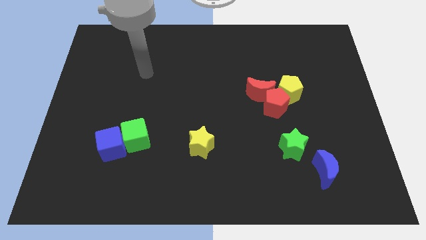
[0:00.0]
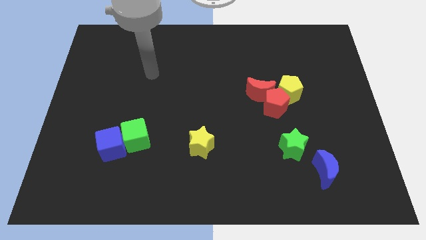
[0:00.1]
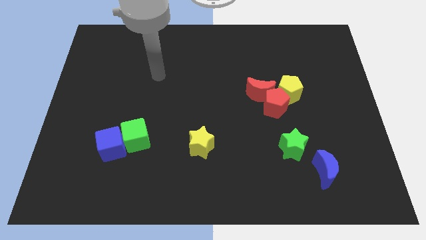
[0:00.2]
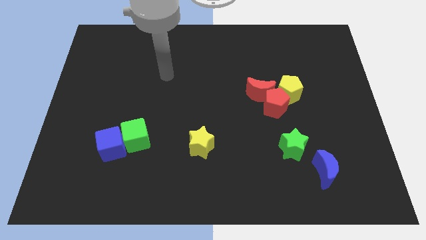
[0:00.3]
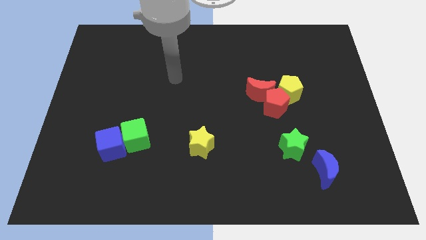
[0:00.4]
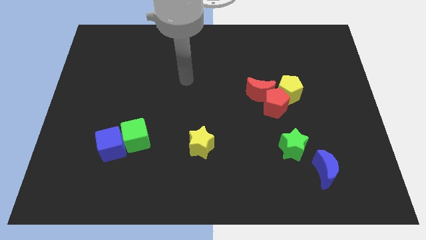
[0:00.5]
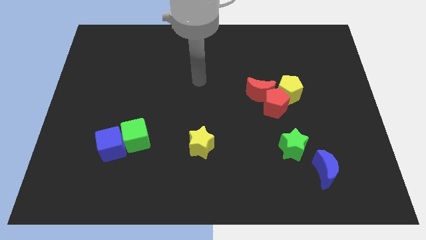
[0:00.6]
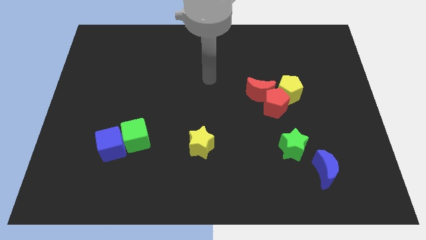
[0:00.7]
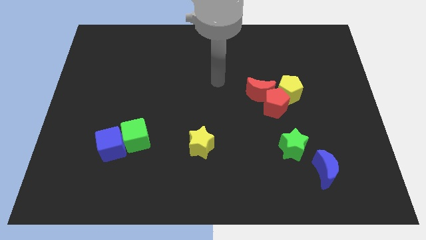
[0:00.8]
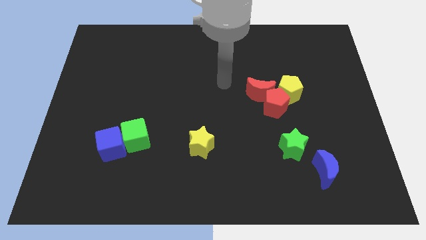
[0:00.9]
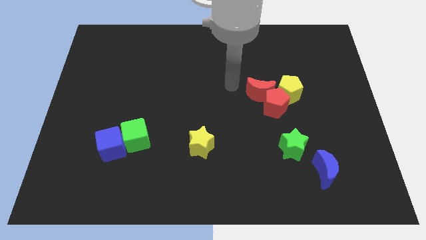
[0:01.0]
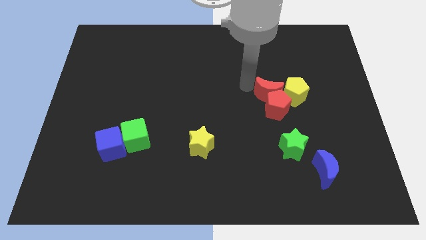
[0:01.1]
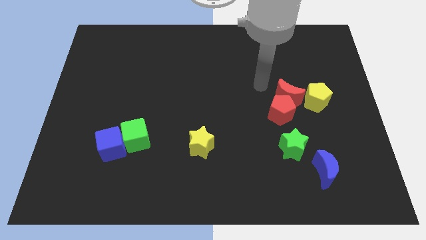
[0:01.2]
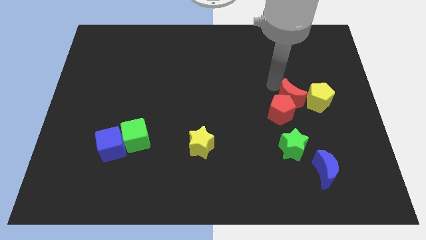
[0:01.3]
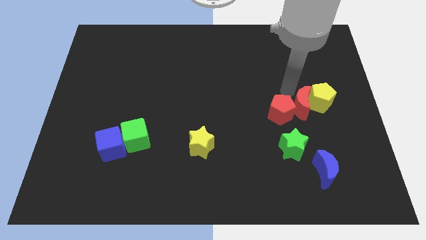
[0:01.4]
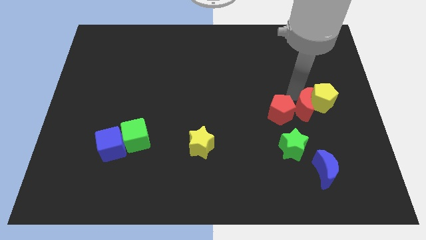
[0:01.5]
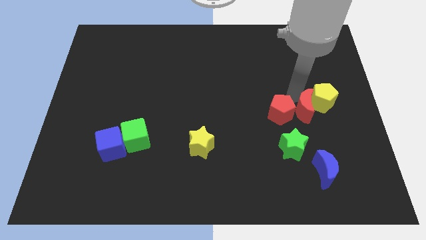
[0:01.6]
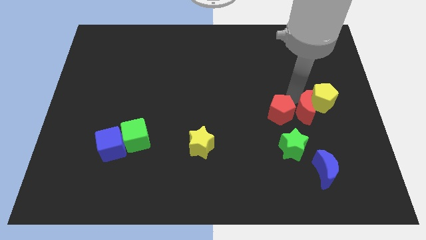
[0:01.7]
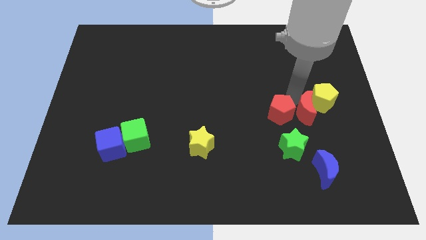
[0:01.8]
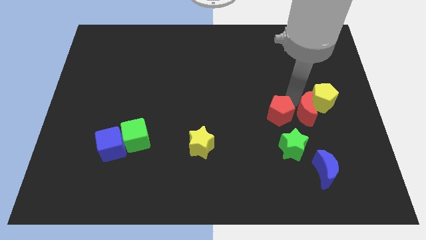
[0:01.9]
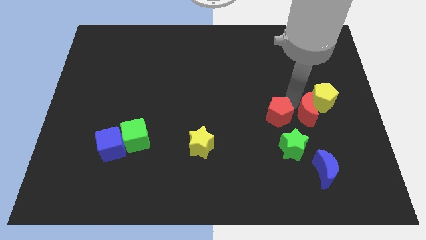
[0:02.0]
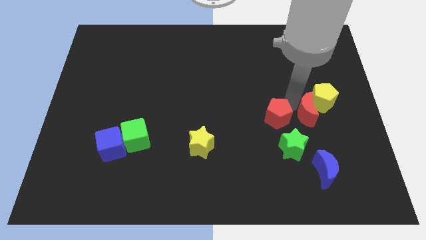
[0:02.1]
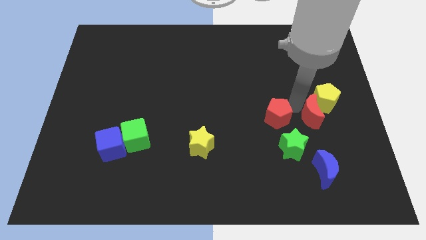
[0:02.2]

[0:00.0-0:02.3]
move the red pentagon away from the red moon and yellow pentagon

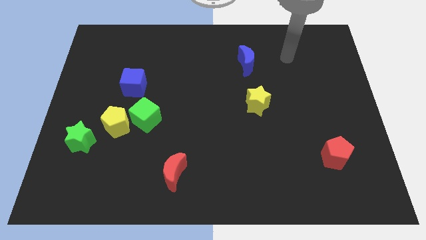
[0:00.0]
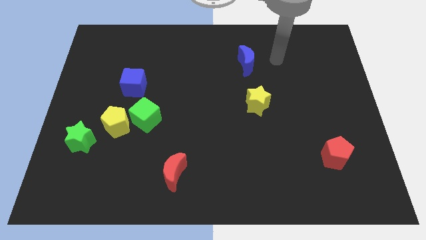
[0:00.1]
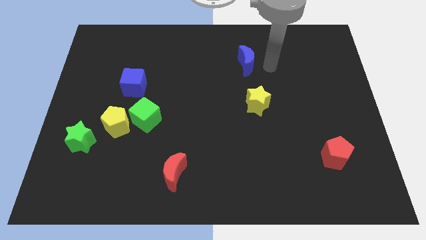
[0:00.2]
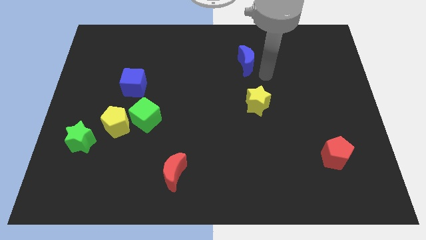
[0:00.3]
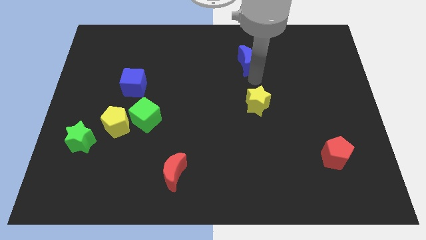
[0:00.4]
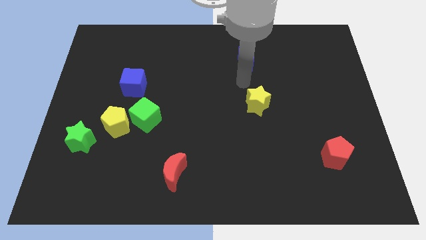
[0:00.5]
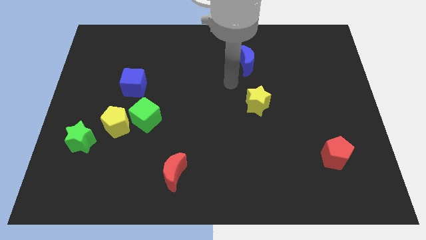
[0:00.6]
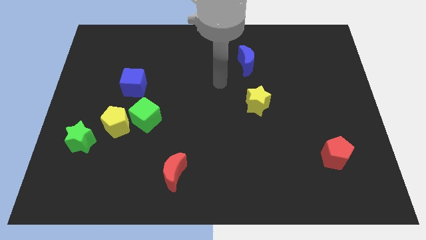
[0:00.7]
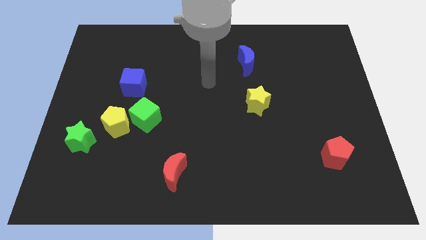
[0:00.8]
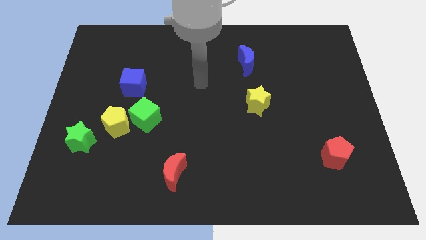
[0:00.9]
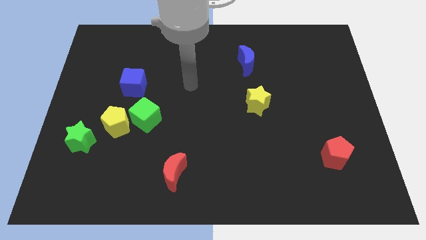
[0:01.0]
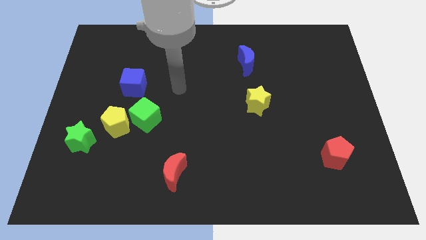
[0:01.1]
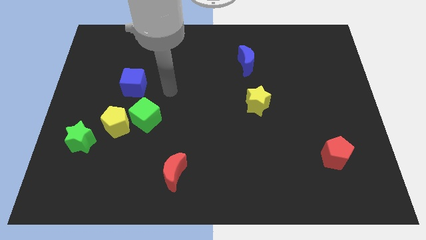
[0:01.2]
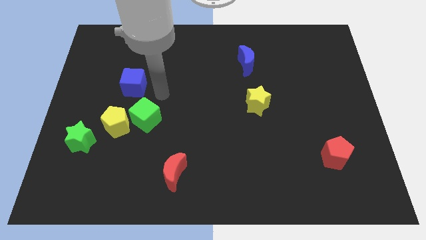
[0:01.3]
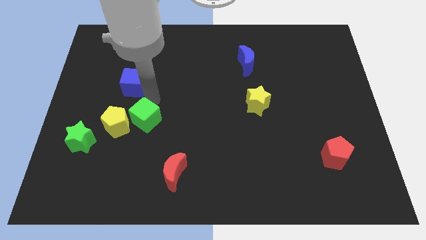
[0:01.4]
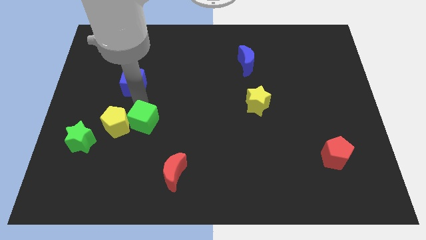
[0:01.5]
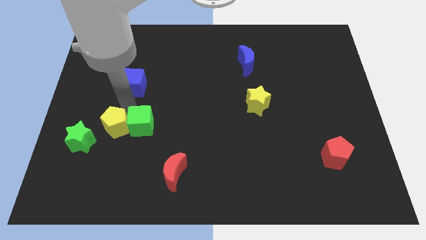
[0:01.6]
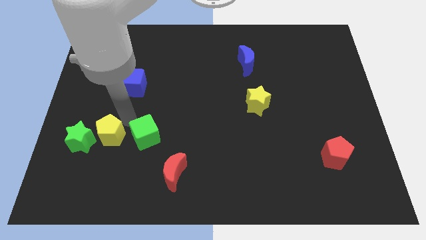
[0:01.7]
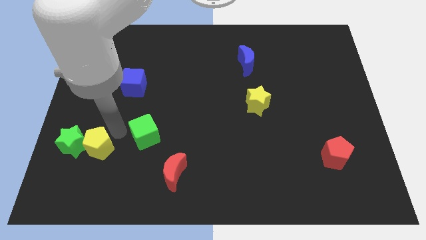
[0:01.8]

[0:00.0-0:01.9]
move the green cube away from the yellow pentagon

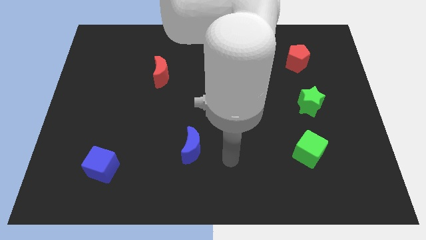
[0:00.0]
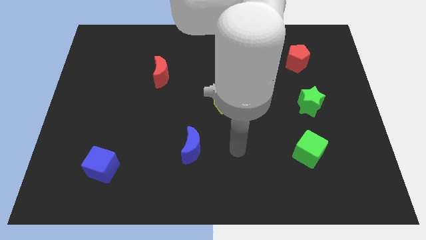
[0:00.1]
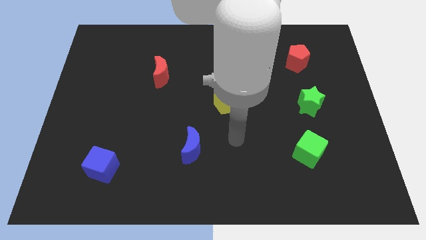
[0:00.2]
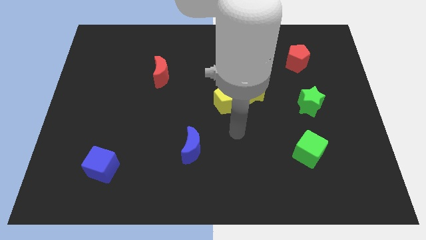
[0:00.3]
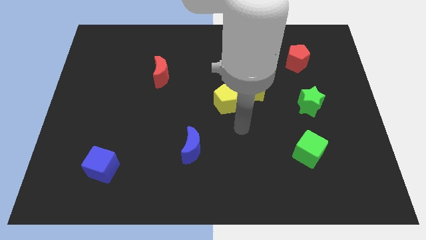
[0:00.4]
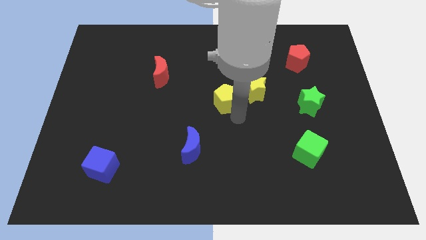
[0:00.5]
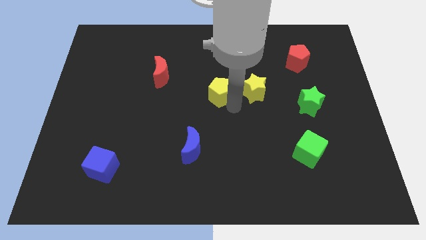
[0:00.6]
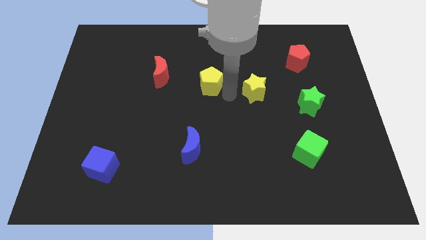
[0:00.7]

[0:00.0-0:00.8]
pull the yellow star apart from the yellow pentagon

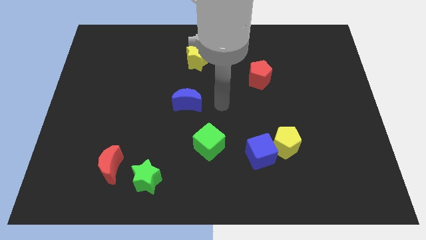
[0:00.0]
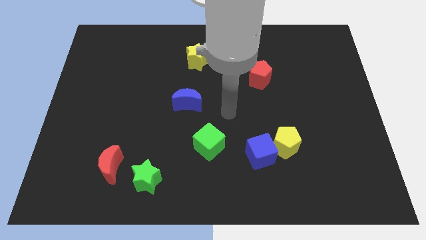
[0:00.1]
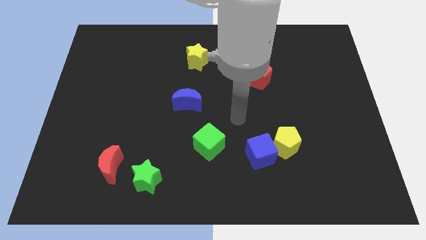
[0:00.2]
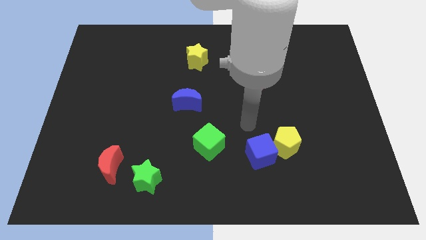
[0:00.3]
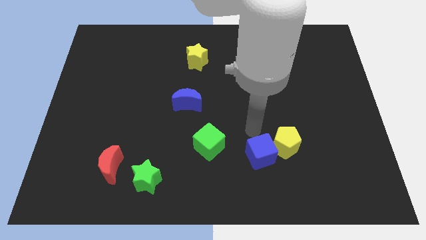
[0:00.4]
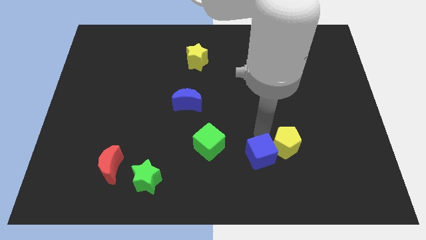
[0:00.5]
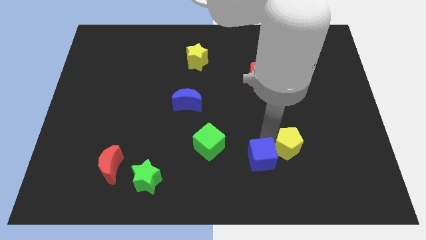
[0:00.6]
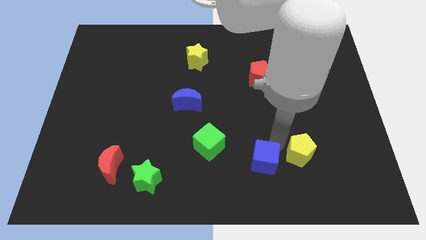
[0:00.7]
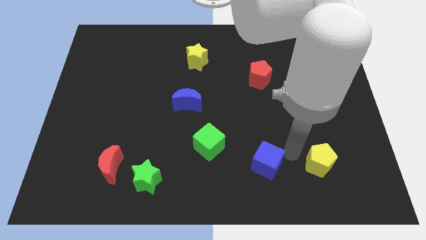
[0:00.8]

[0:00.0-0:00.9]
pull the blue cube apart from the yellow pentagon

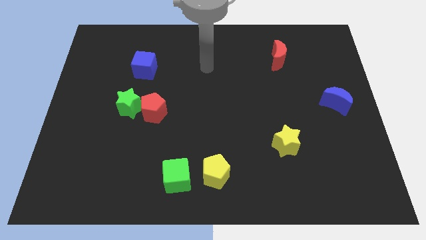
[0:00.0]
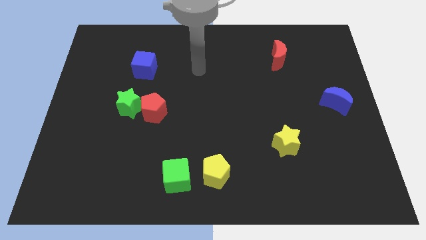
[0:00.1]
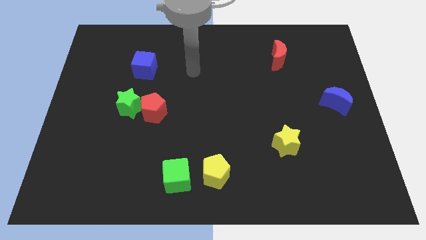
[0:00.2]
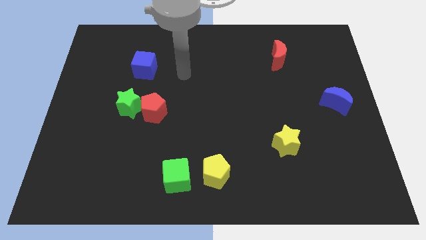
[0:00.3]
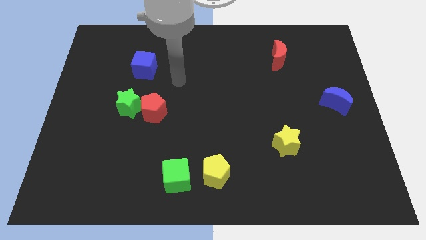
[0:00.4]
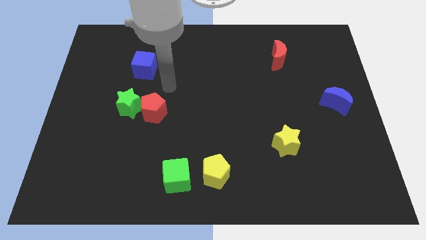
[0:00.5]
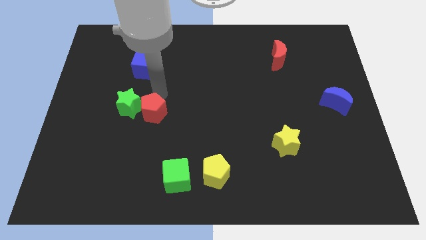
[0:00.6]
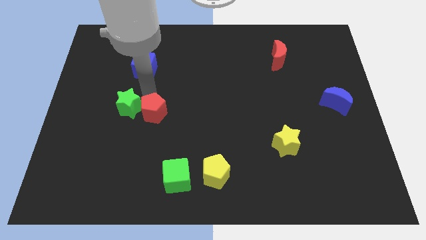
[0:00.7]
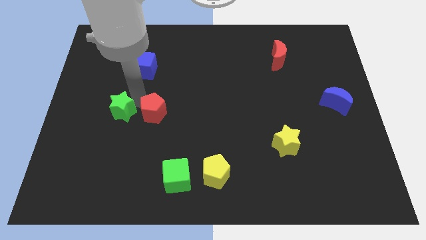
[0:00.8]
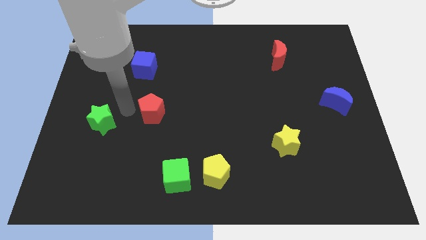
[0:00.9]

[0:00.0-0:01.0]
pull the red pentagon apart from the green star

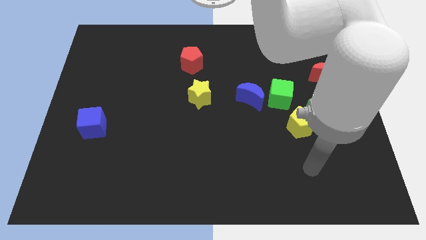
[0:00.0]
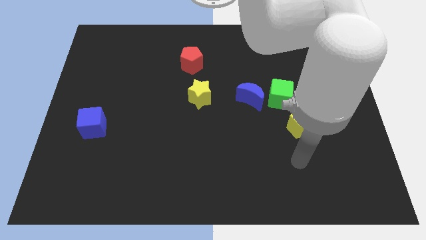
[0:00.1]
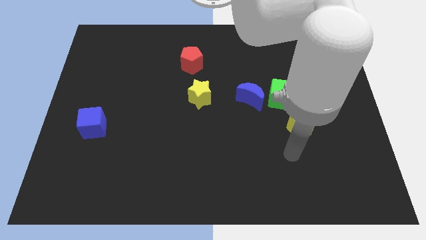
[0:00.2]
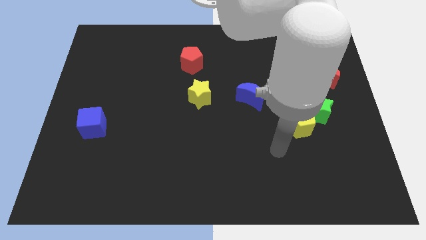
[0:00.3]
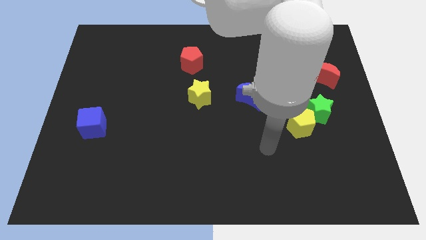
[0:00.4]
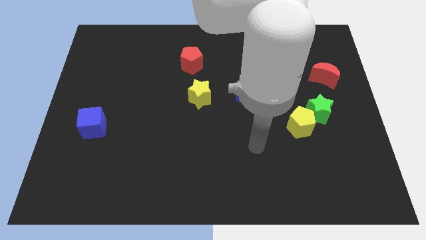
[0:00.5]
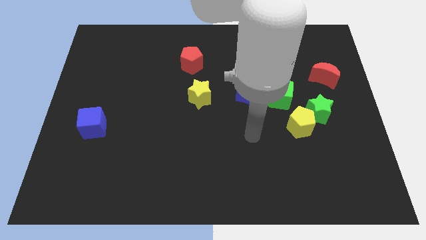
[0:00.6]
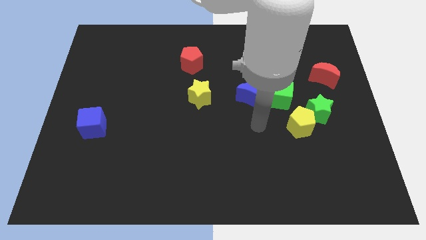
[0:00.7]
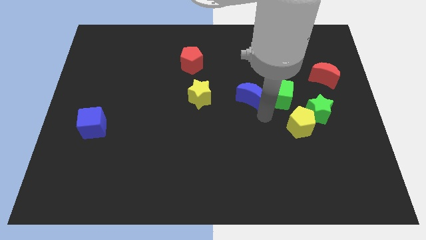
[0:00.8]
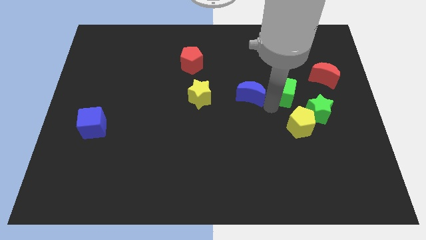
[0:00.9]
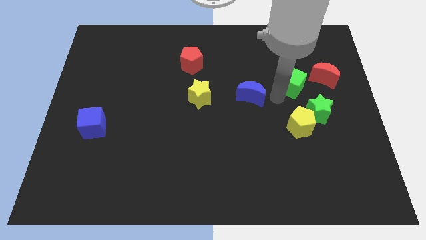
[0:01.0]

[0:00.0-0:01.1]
move the blue moon away from the green cube

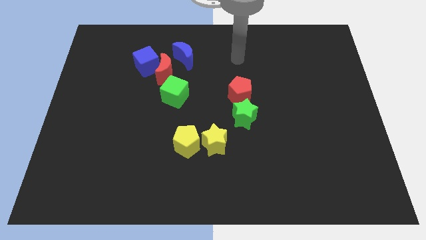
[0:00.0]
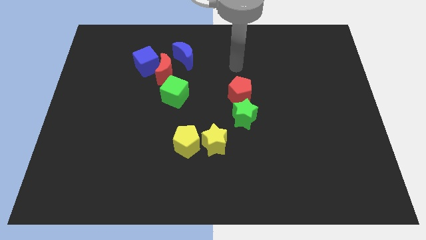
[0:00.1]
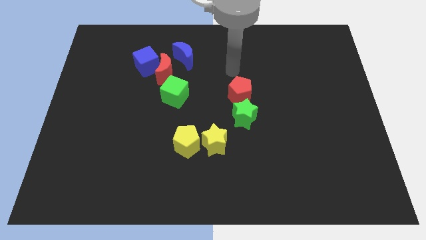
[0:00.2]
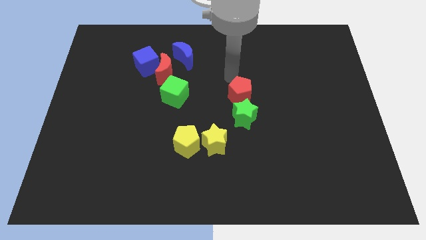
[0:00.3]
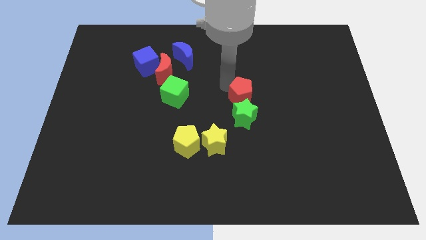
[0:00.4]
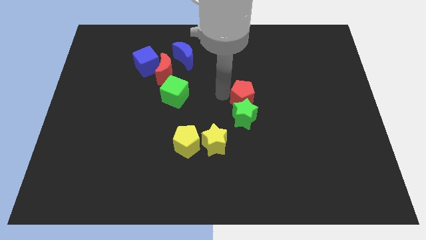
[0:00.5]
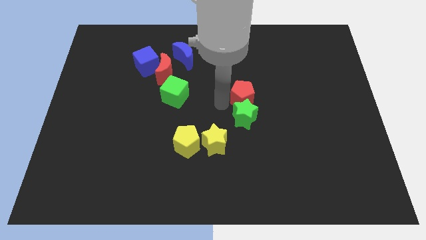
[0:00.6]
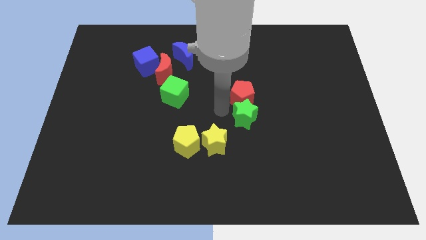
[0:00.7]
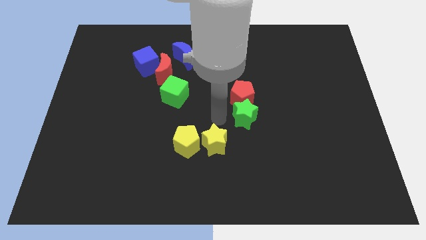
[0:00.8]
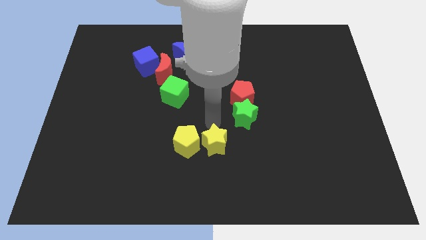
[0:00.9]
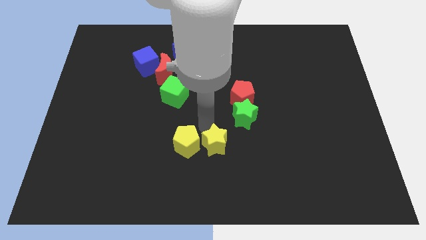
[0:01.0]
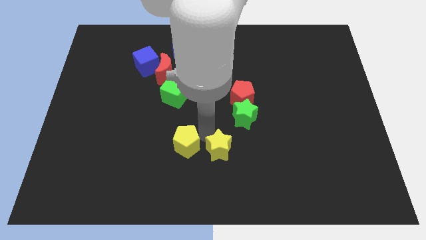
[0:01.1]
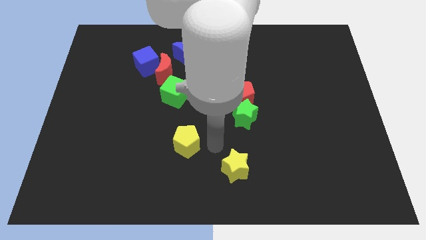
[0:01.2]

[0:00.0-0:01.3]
separate the yellow pentagon from the yellow star
